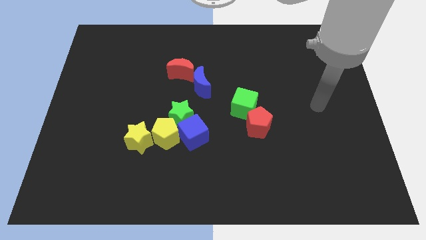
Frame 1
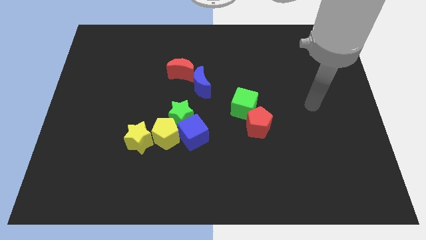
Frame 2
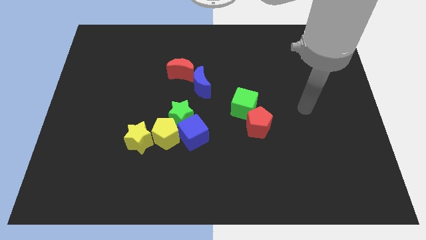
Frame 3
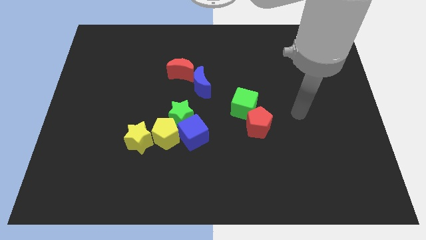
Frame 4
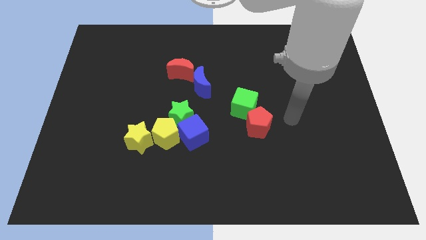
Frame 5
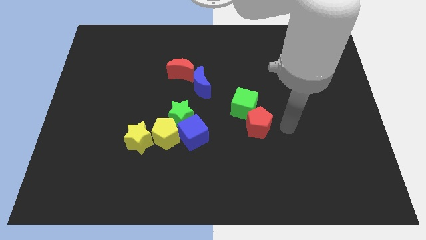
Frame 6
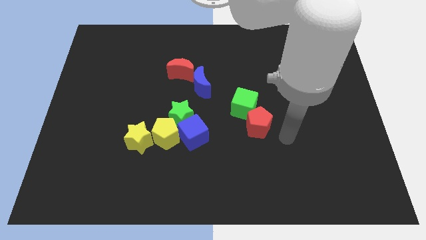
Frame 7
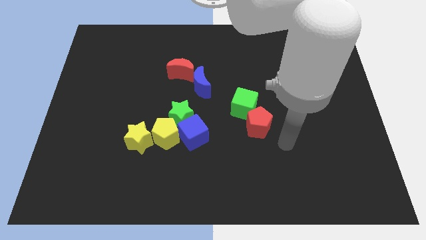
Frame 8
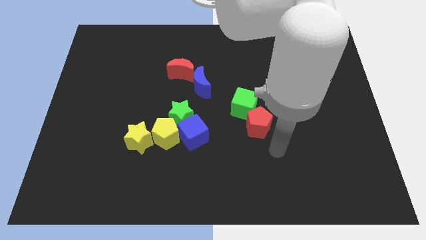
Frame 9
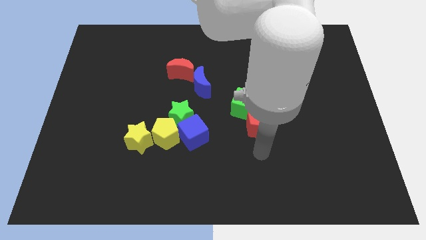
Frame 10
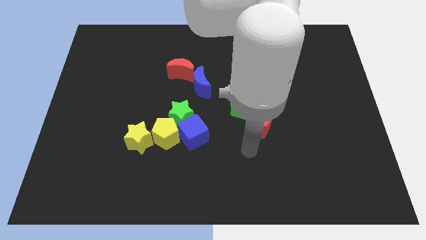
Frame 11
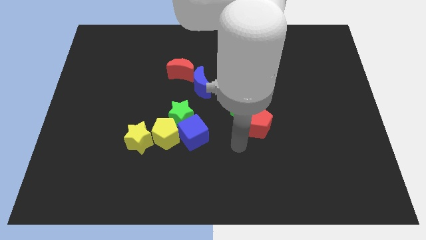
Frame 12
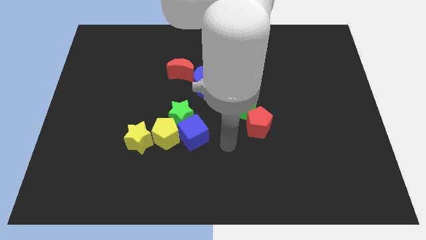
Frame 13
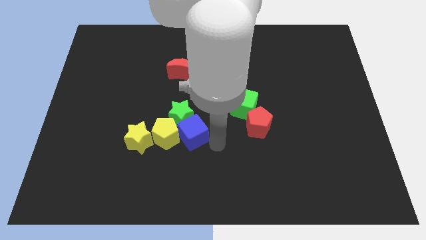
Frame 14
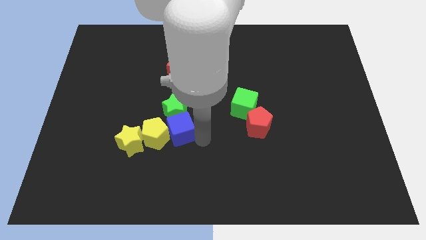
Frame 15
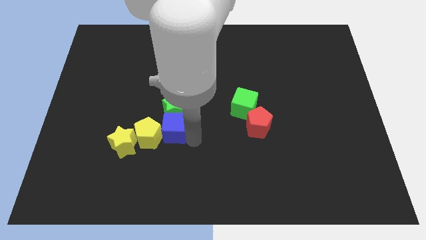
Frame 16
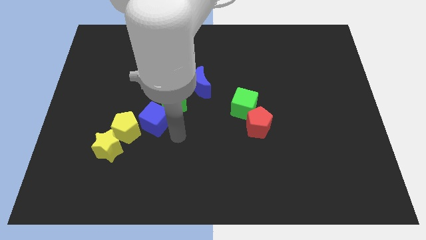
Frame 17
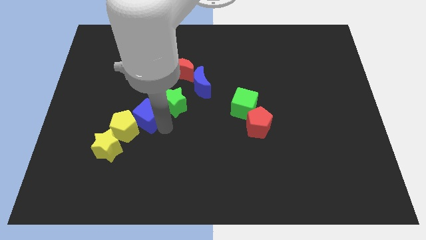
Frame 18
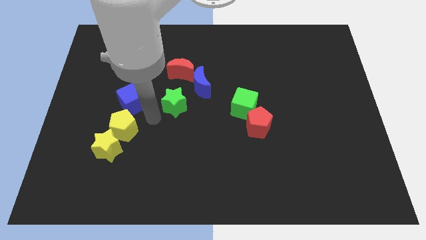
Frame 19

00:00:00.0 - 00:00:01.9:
pull the green star apart from the blue cube and yellow pentagon

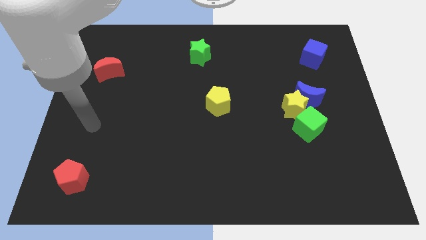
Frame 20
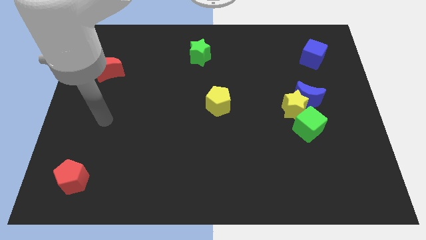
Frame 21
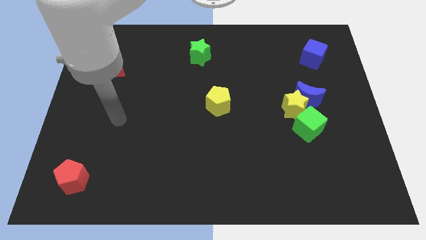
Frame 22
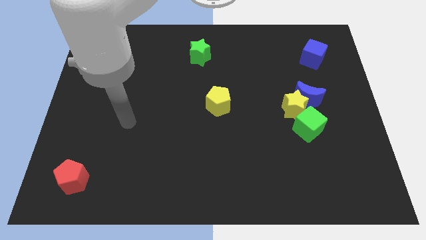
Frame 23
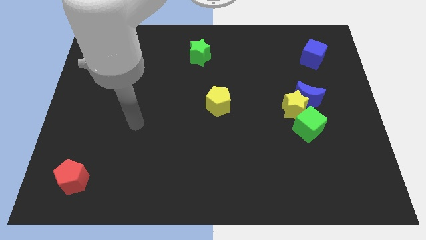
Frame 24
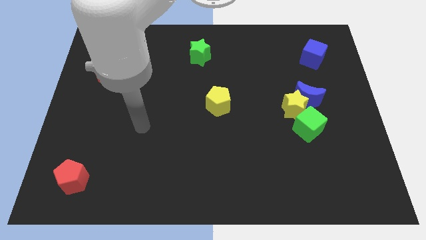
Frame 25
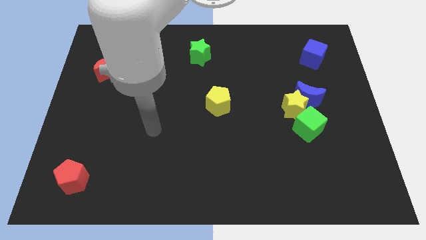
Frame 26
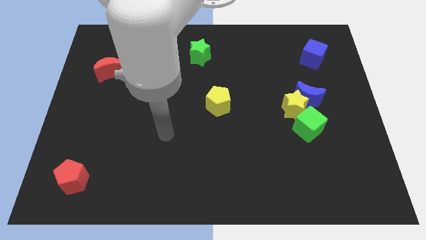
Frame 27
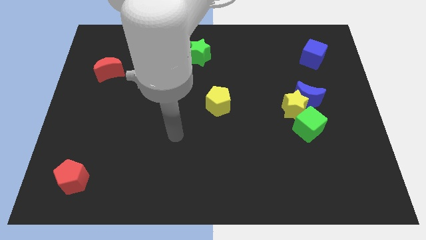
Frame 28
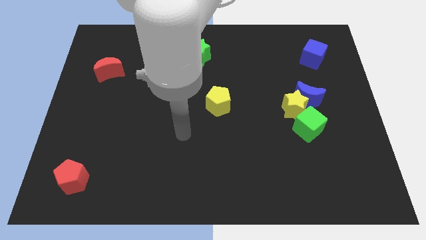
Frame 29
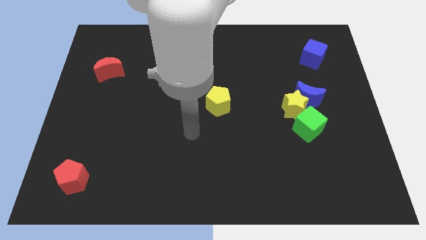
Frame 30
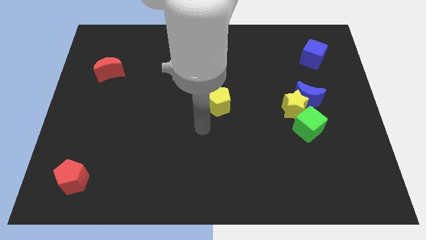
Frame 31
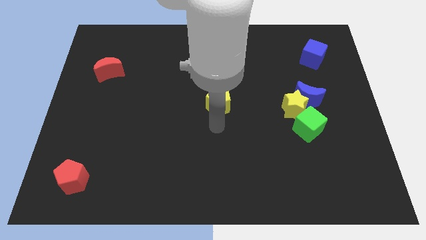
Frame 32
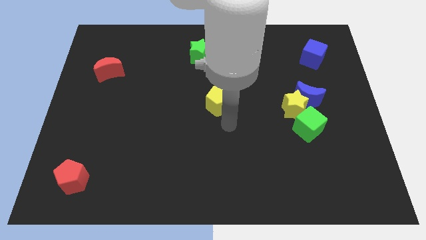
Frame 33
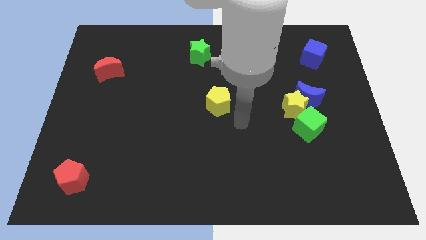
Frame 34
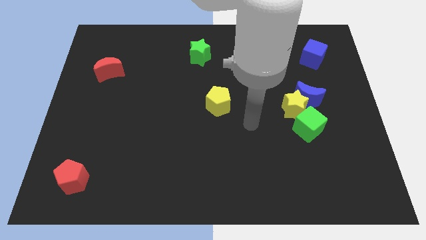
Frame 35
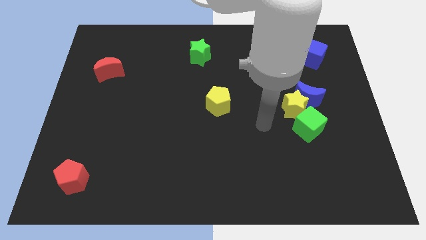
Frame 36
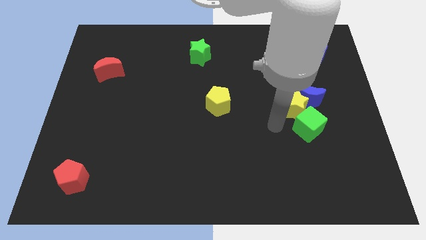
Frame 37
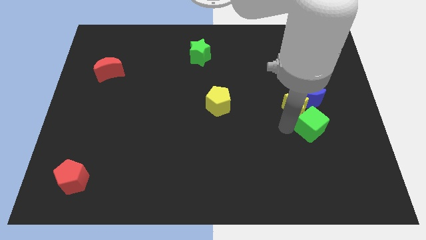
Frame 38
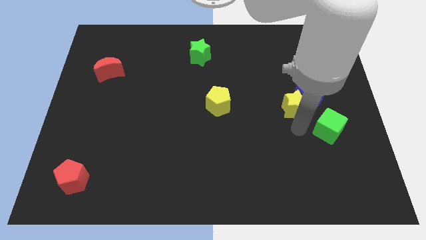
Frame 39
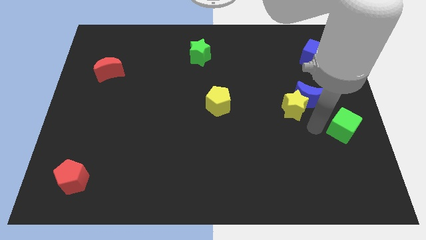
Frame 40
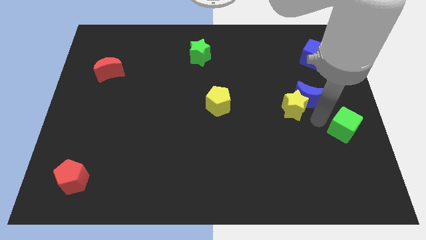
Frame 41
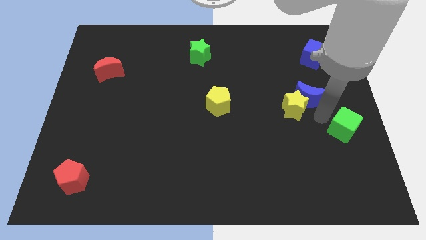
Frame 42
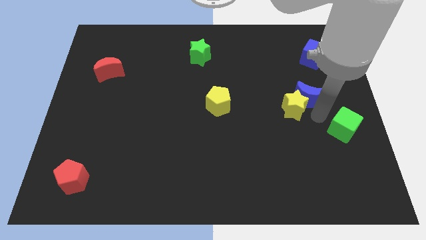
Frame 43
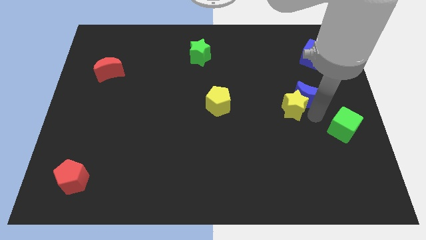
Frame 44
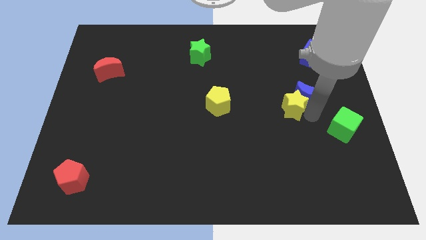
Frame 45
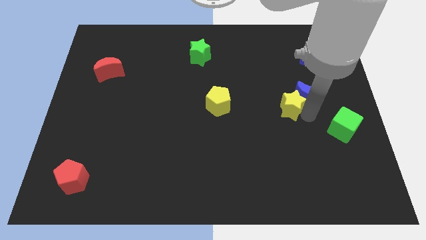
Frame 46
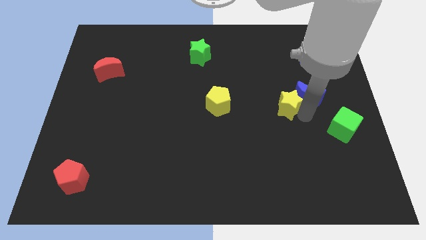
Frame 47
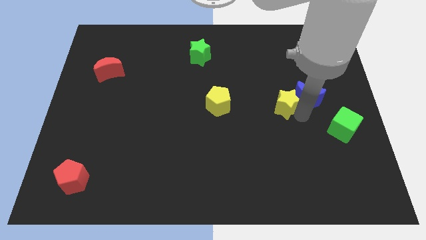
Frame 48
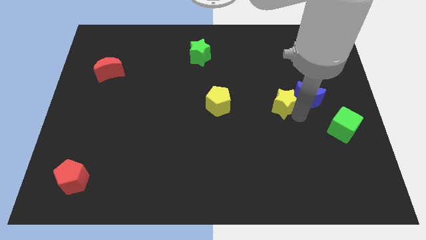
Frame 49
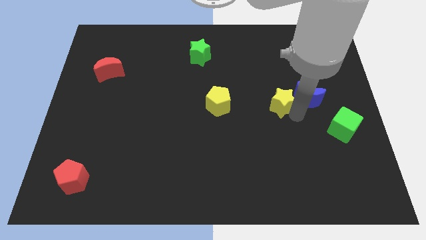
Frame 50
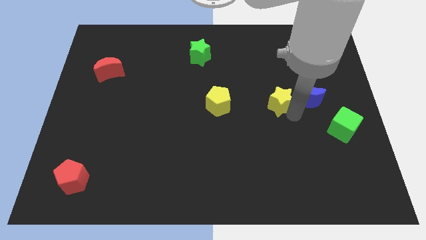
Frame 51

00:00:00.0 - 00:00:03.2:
move the yellow star away from the blue moon and green cube

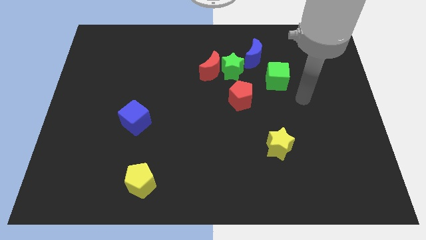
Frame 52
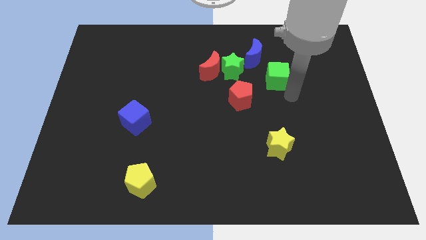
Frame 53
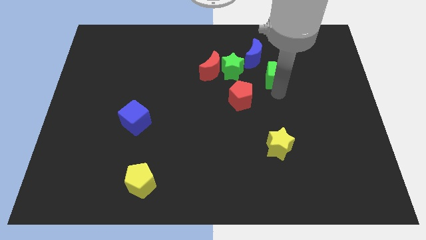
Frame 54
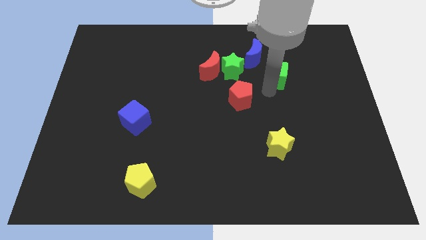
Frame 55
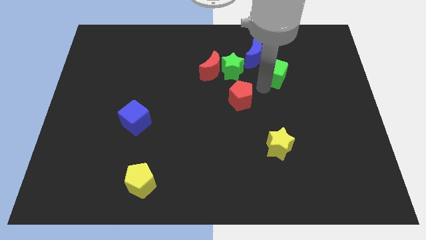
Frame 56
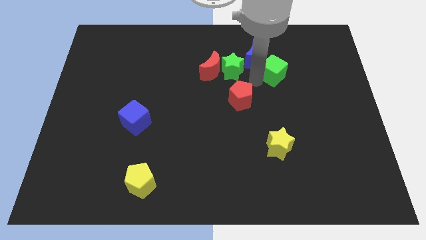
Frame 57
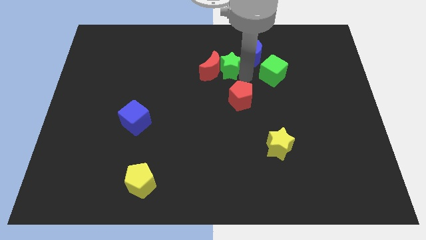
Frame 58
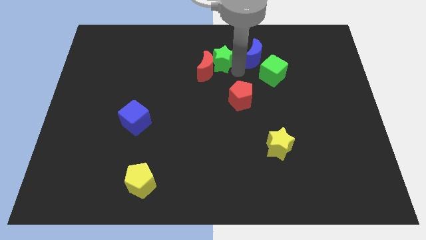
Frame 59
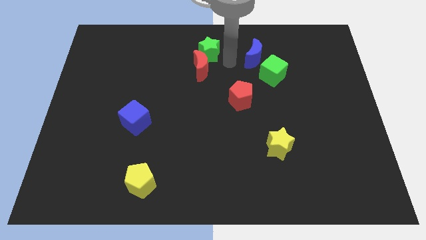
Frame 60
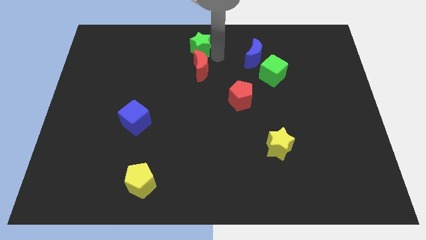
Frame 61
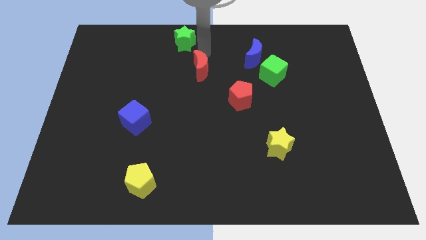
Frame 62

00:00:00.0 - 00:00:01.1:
pull the red moon apart from the green star

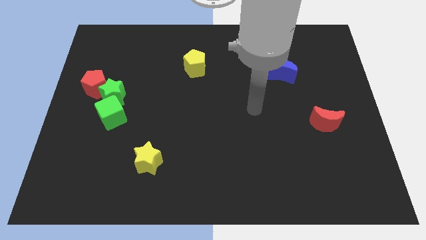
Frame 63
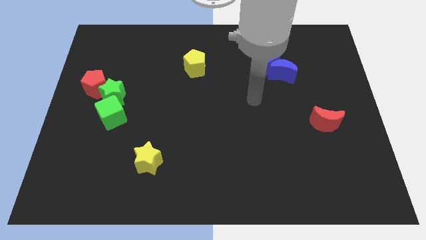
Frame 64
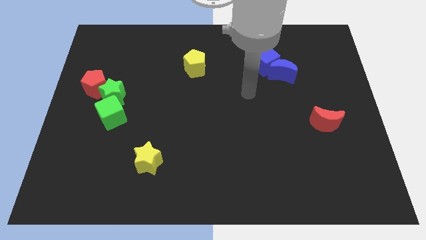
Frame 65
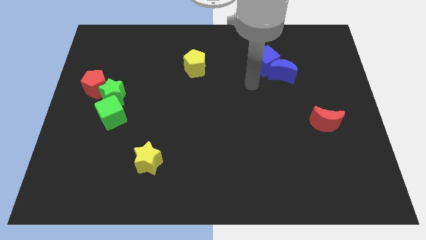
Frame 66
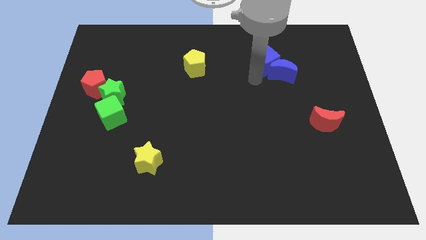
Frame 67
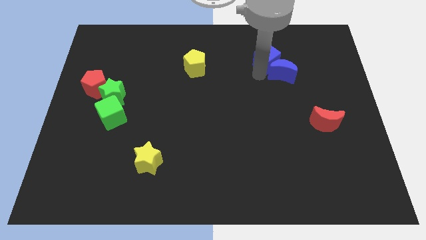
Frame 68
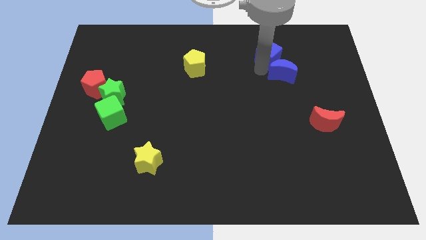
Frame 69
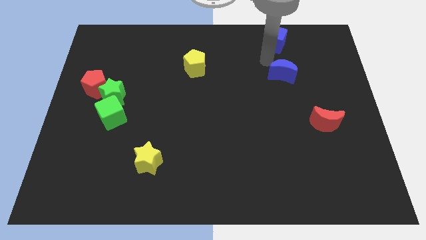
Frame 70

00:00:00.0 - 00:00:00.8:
move the blue moon away from the blue cube

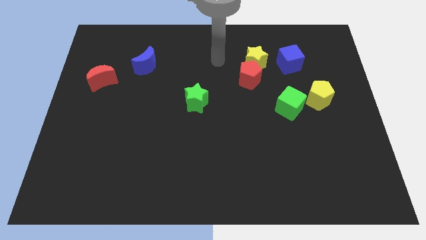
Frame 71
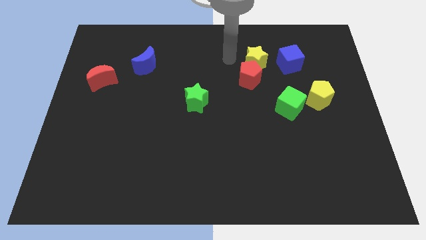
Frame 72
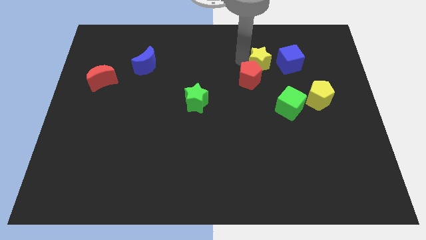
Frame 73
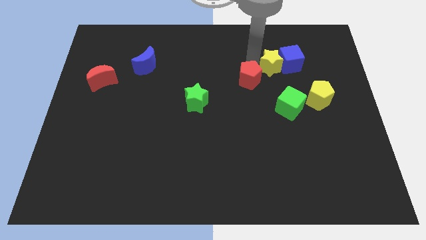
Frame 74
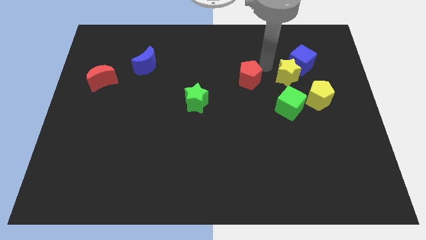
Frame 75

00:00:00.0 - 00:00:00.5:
move the red pentagon away from the yellow star

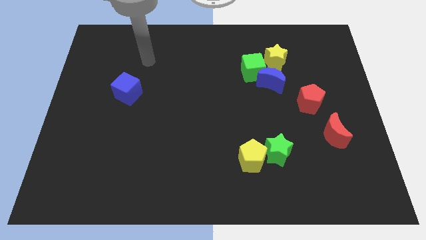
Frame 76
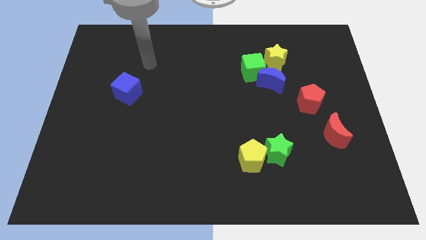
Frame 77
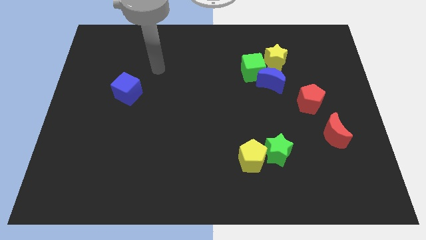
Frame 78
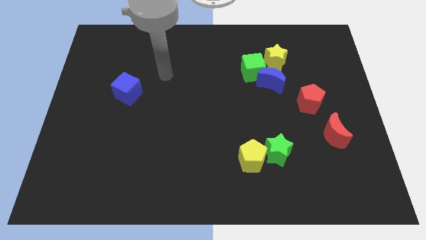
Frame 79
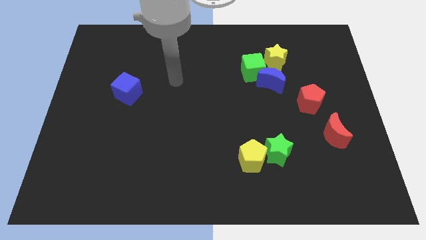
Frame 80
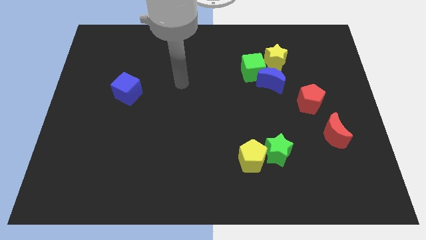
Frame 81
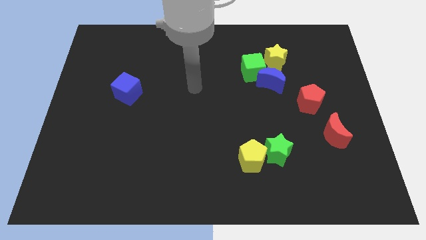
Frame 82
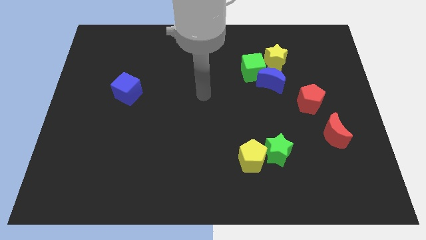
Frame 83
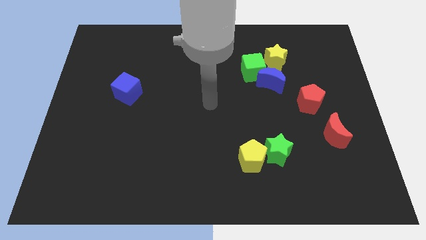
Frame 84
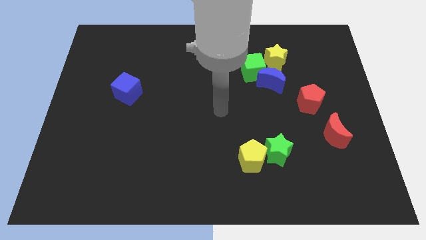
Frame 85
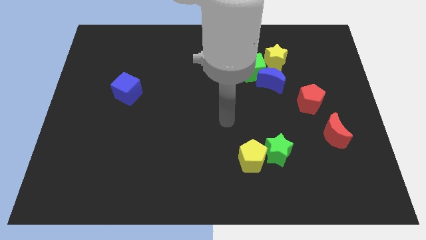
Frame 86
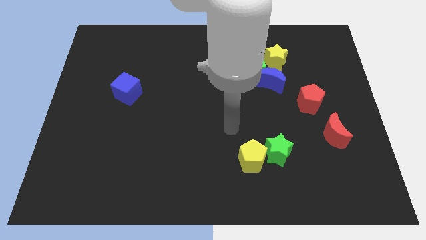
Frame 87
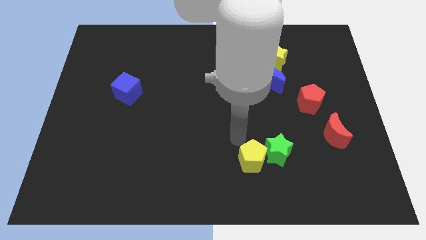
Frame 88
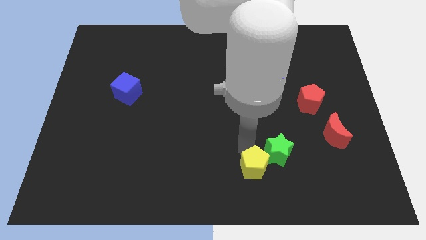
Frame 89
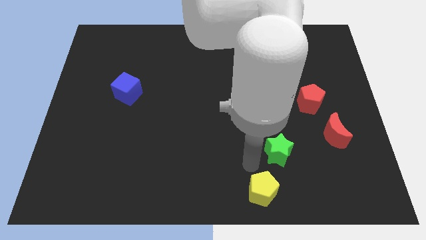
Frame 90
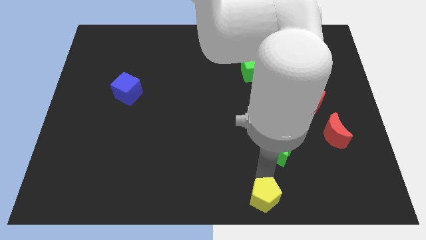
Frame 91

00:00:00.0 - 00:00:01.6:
pull the green star apart from the yellow pentagon

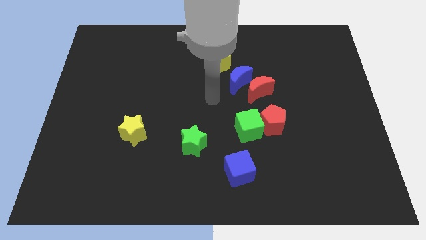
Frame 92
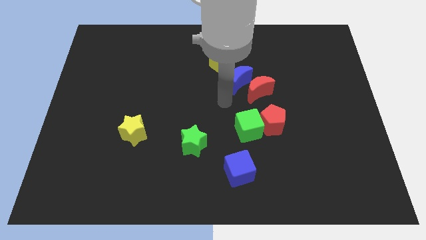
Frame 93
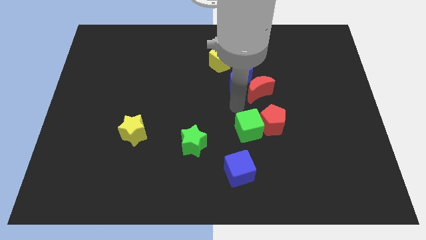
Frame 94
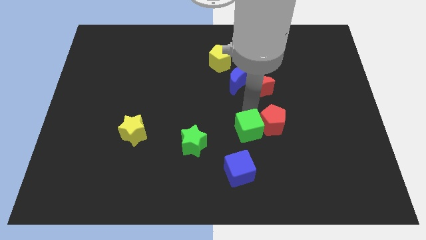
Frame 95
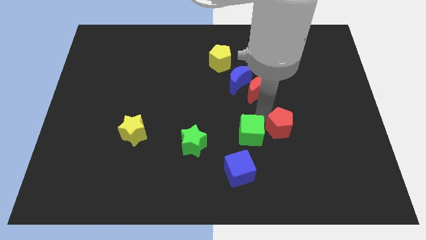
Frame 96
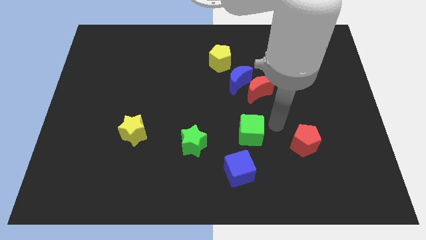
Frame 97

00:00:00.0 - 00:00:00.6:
separate the green cube from the red pentagon
